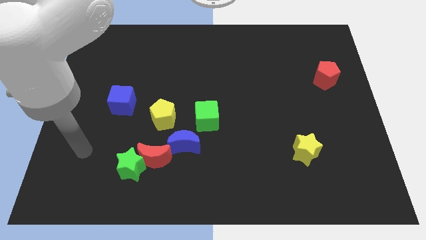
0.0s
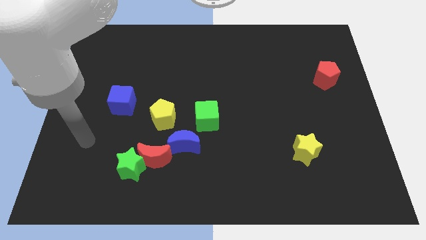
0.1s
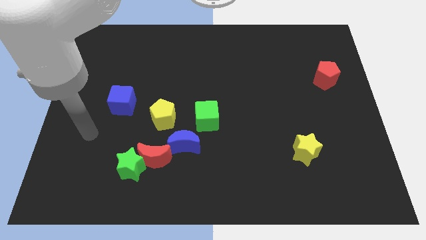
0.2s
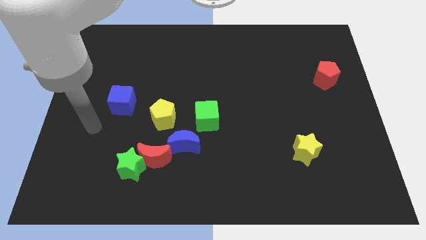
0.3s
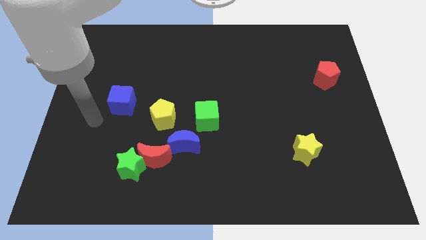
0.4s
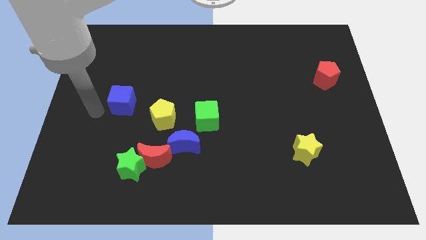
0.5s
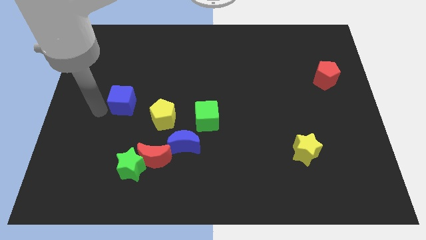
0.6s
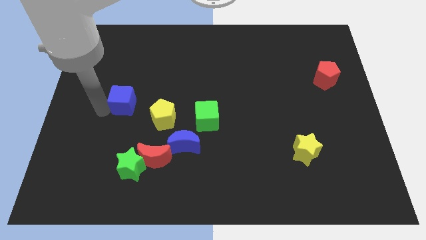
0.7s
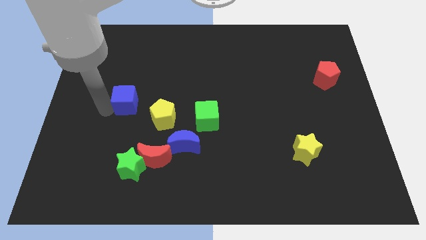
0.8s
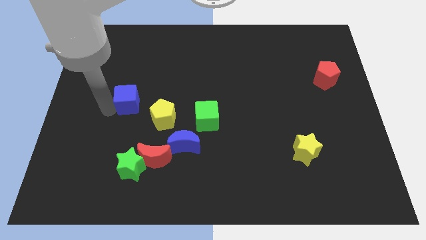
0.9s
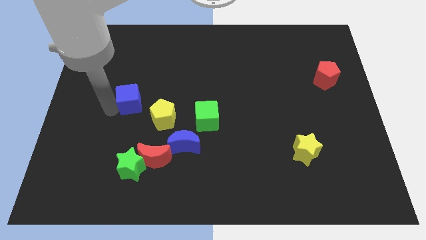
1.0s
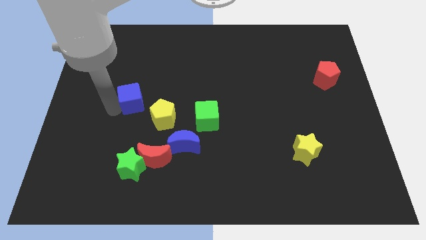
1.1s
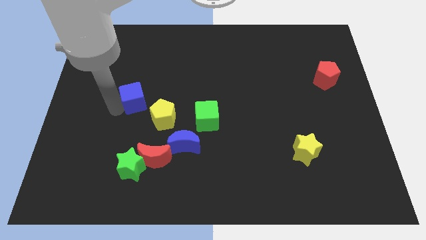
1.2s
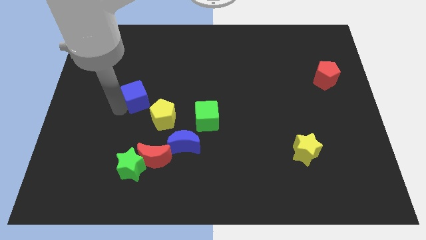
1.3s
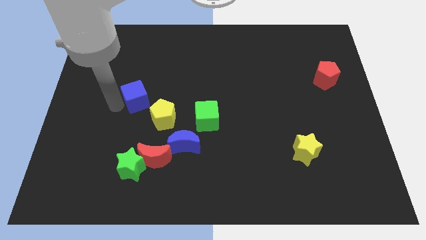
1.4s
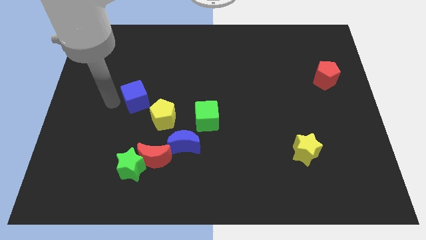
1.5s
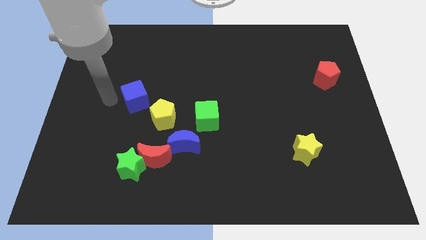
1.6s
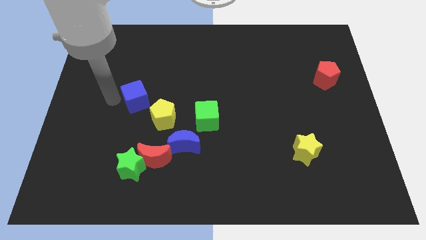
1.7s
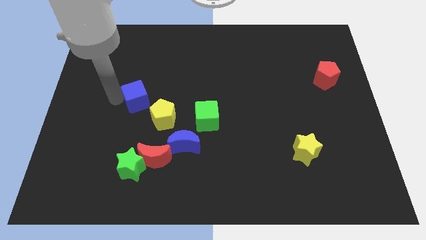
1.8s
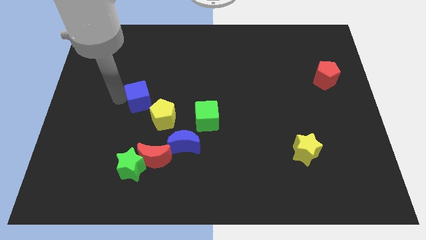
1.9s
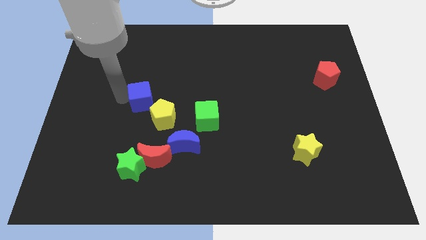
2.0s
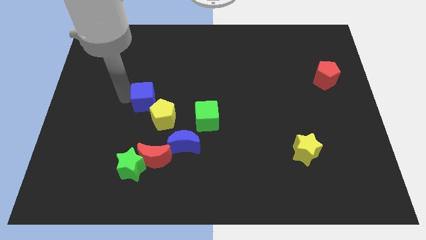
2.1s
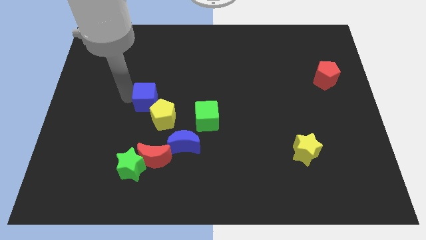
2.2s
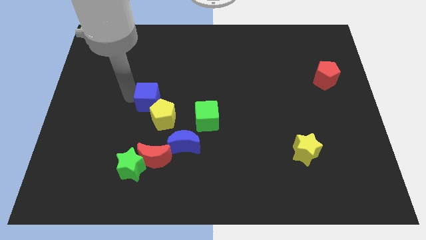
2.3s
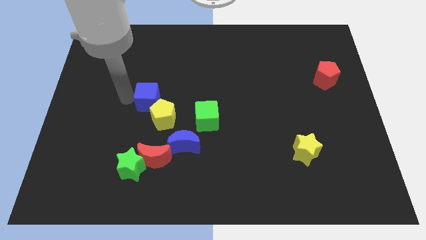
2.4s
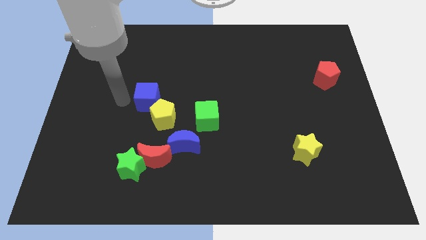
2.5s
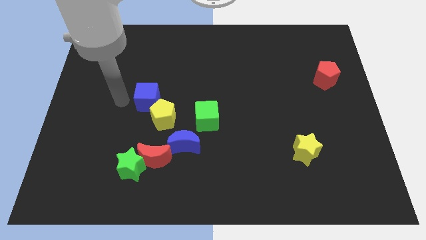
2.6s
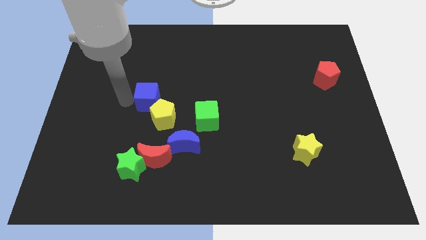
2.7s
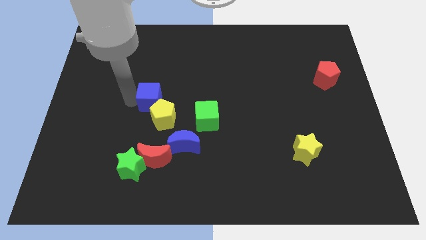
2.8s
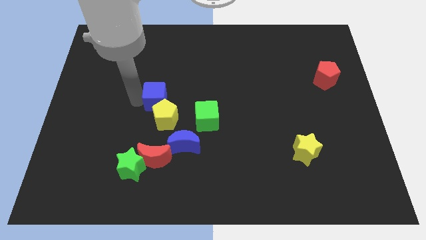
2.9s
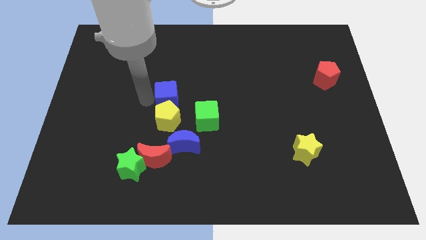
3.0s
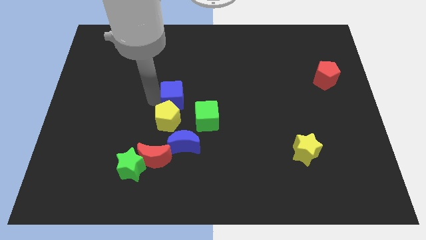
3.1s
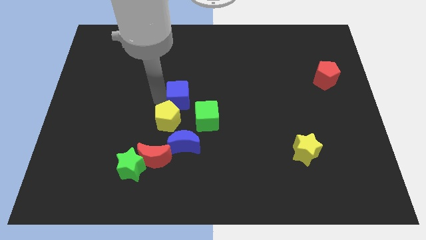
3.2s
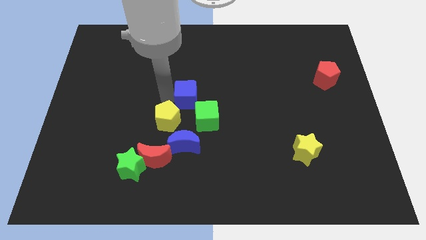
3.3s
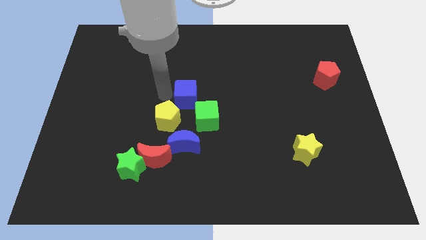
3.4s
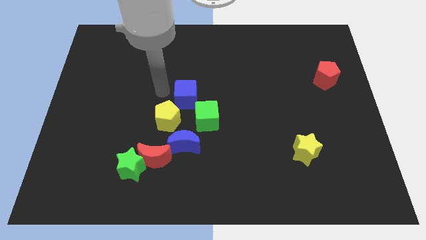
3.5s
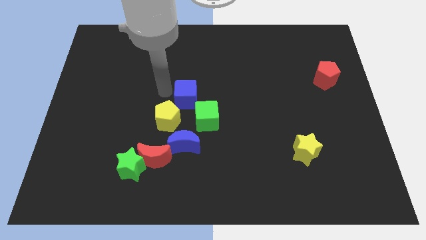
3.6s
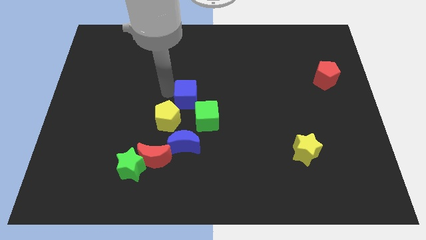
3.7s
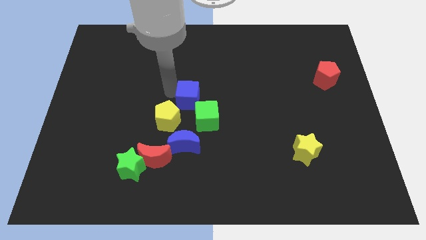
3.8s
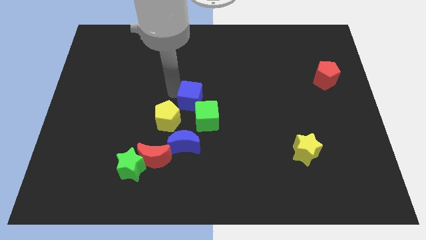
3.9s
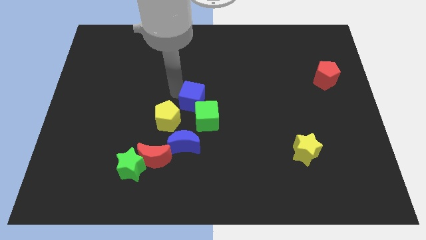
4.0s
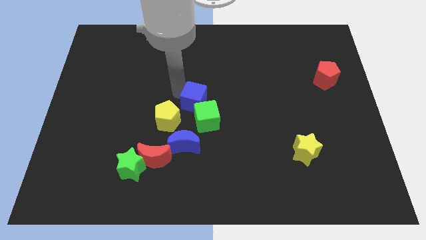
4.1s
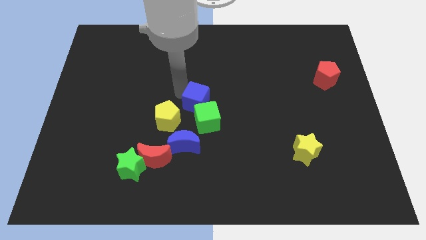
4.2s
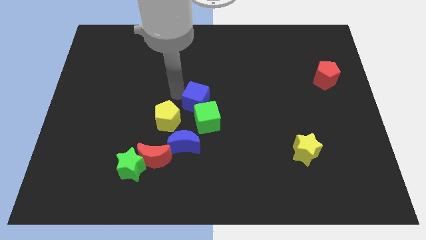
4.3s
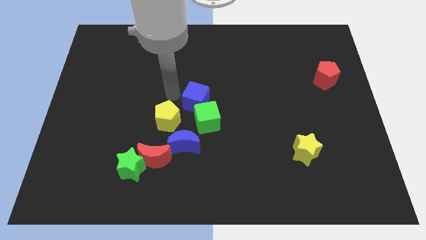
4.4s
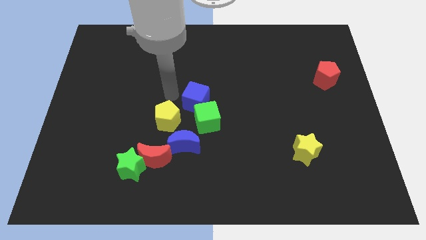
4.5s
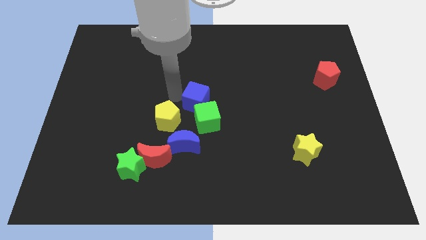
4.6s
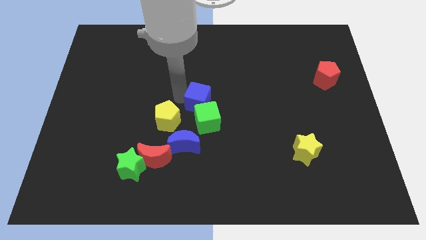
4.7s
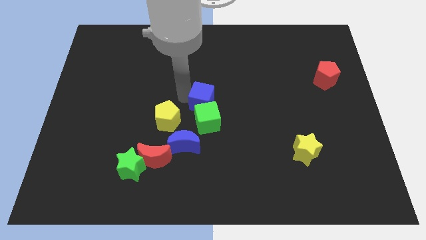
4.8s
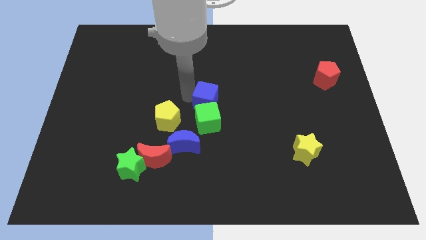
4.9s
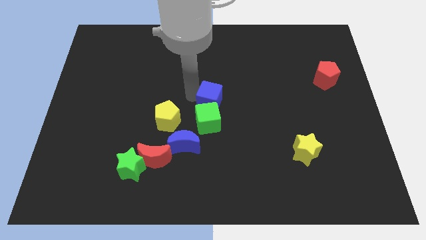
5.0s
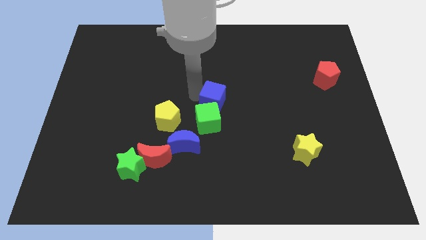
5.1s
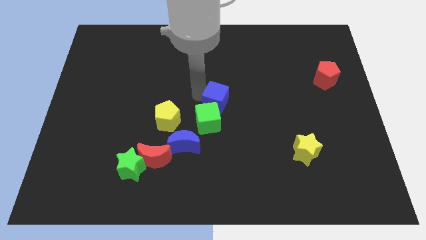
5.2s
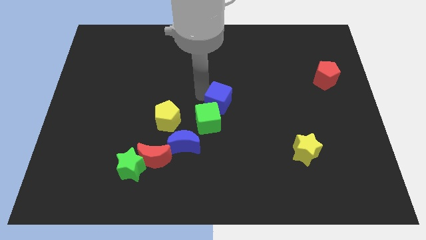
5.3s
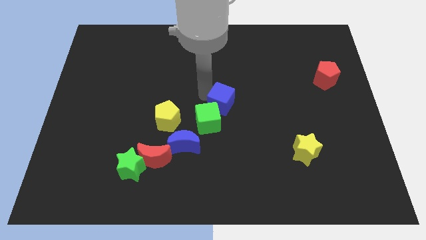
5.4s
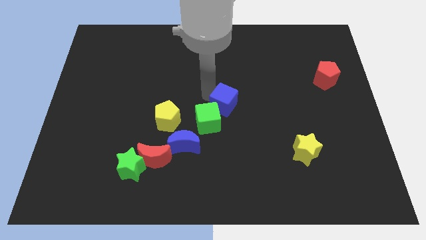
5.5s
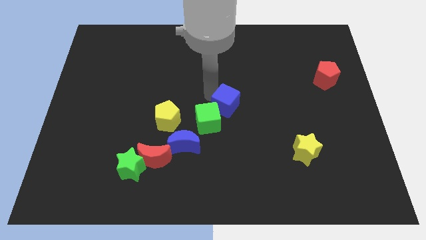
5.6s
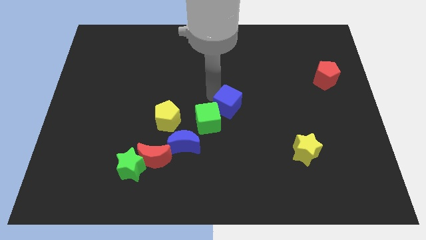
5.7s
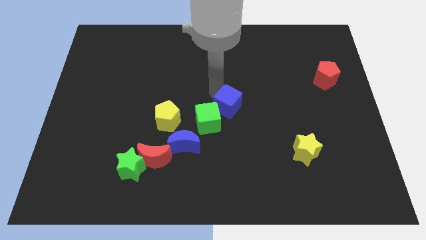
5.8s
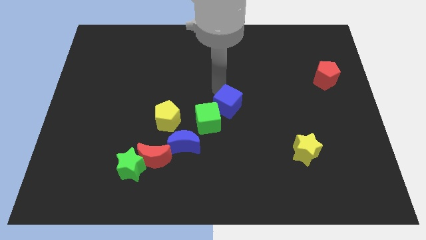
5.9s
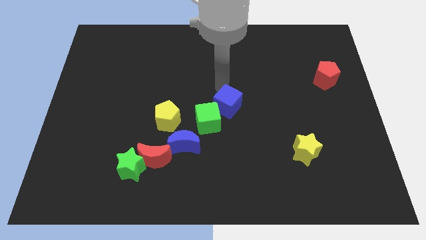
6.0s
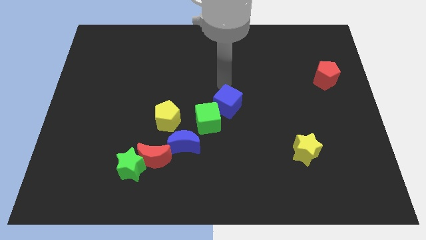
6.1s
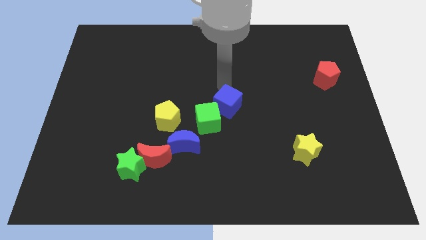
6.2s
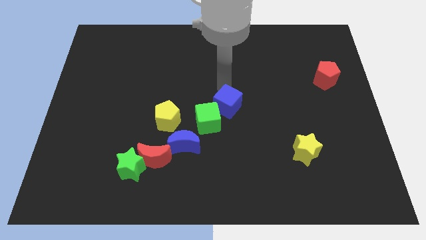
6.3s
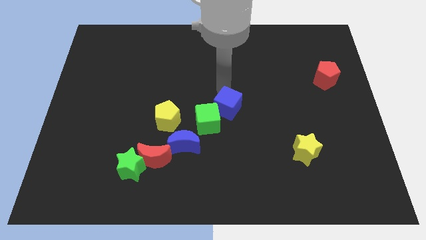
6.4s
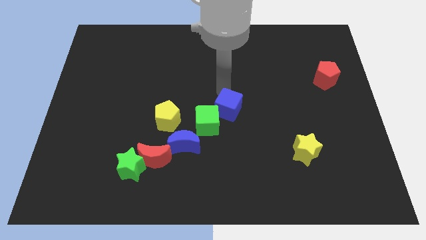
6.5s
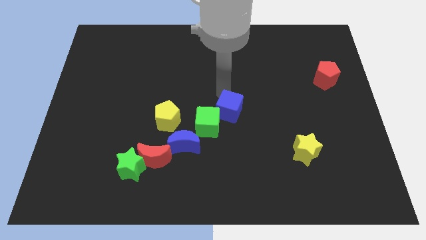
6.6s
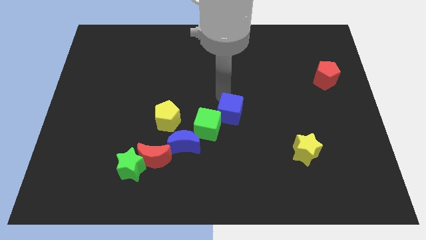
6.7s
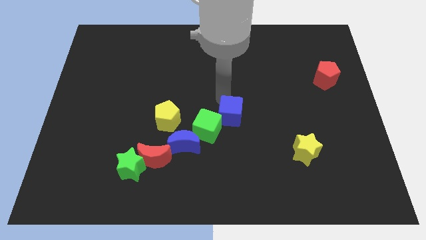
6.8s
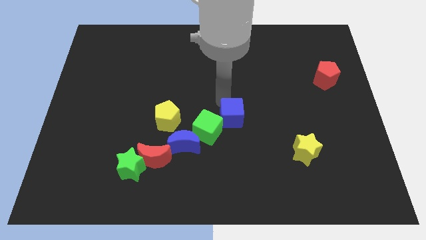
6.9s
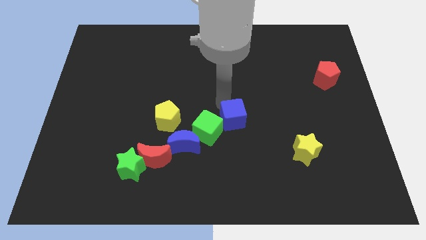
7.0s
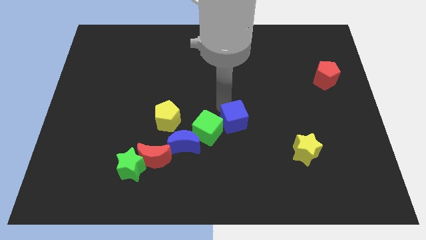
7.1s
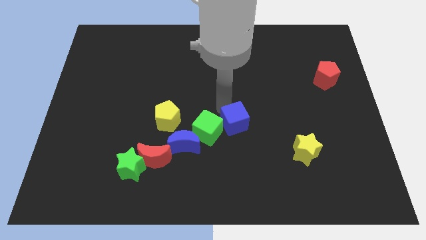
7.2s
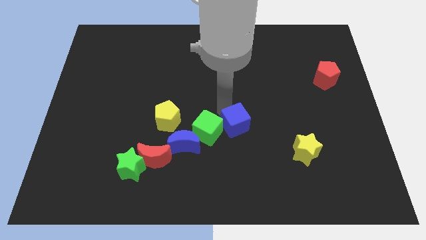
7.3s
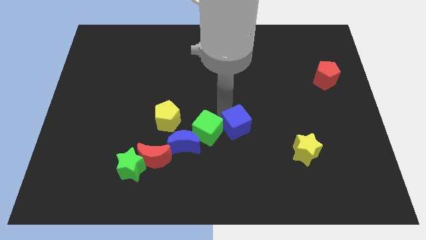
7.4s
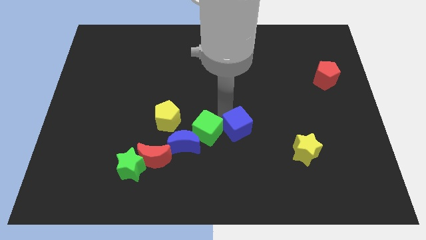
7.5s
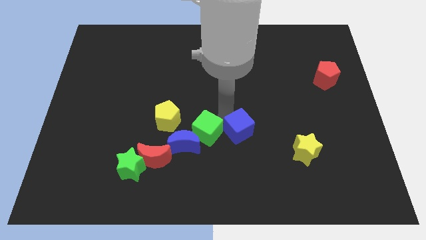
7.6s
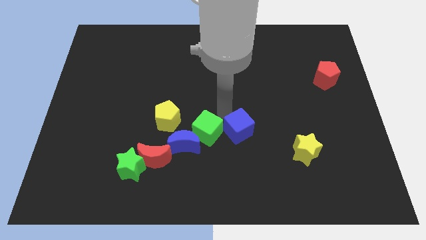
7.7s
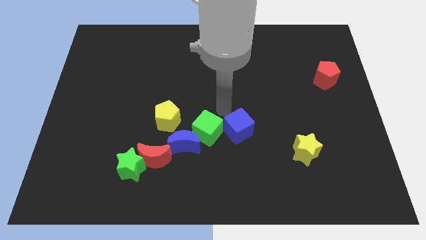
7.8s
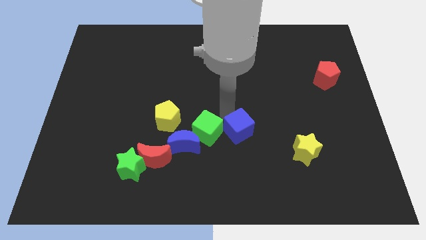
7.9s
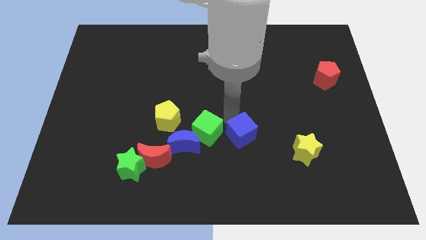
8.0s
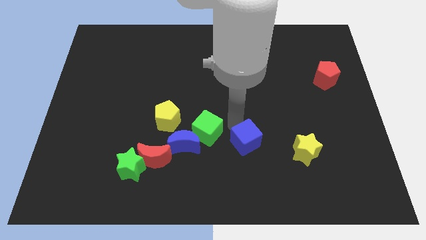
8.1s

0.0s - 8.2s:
move the blue cube to the left side of the yellow star
